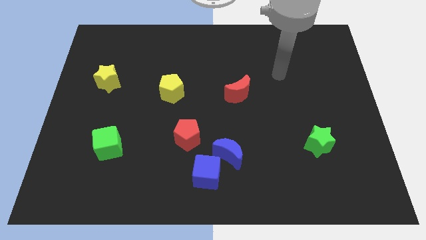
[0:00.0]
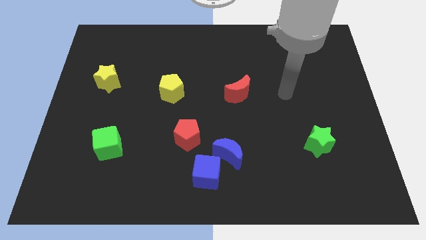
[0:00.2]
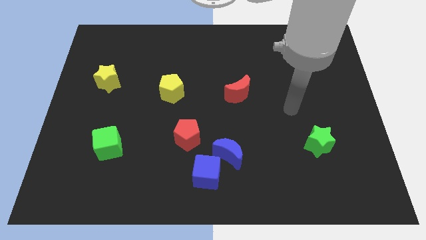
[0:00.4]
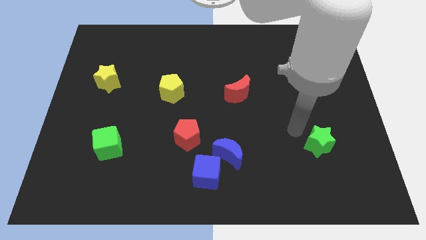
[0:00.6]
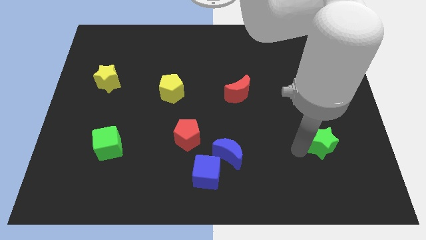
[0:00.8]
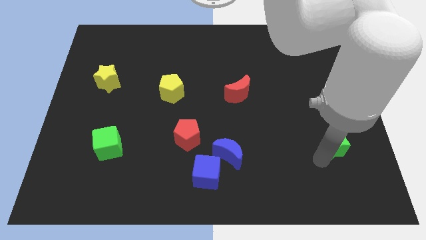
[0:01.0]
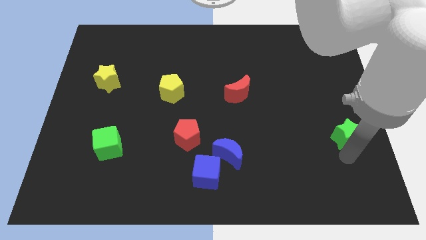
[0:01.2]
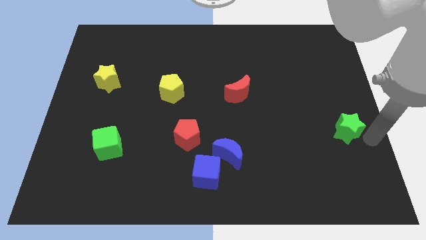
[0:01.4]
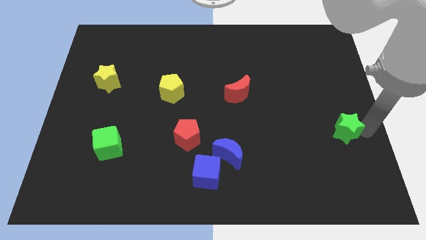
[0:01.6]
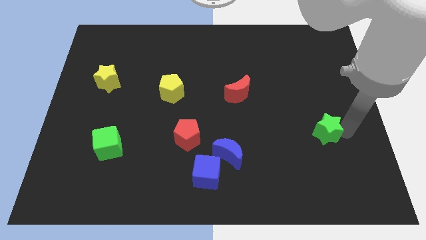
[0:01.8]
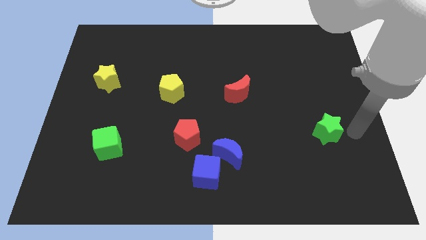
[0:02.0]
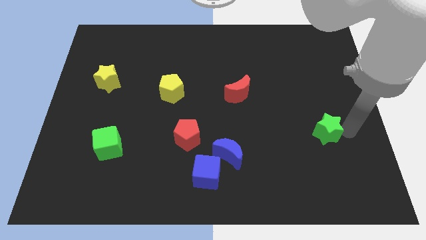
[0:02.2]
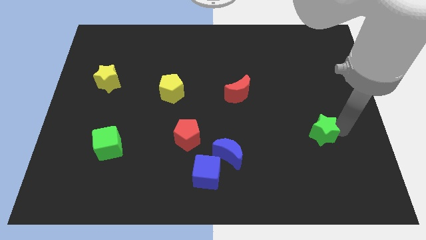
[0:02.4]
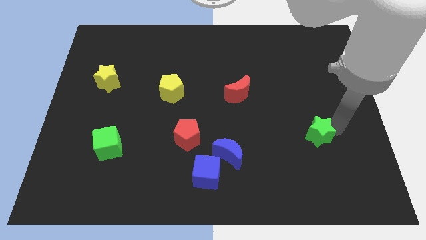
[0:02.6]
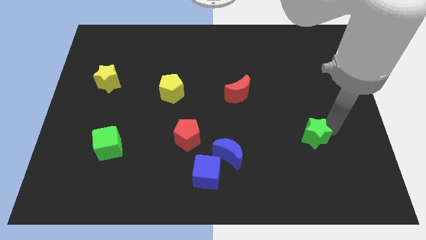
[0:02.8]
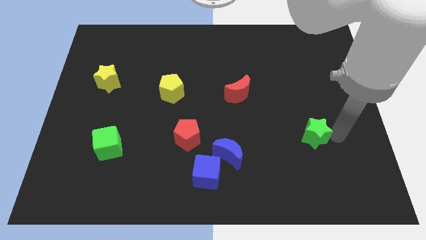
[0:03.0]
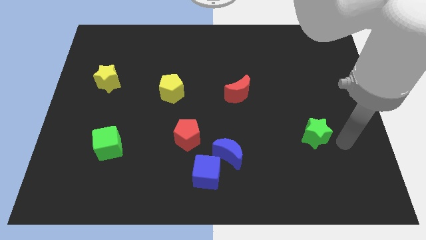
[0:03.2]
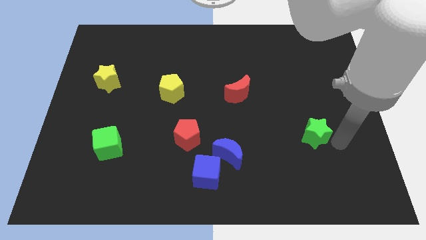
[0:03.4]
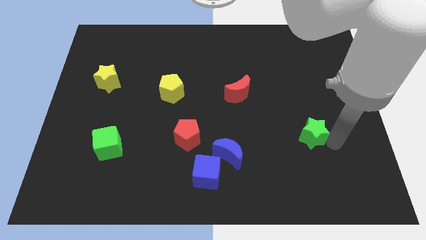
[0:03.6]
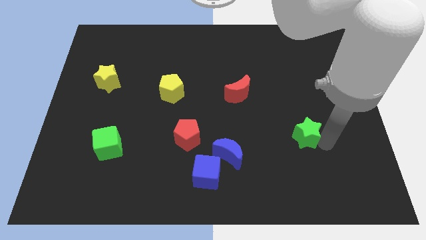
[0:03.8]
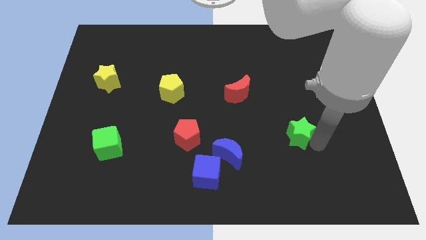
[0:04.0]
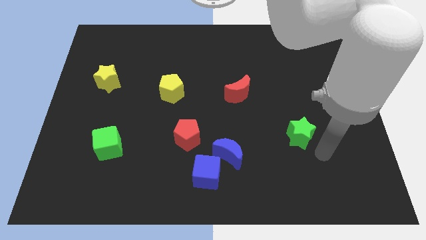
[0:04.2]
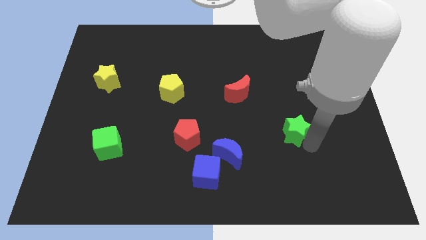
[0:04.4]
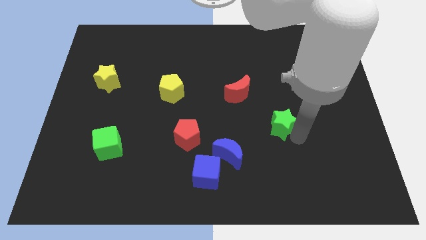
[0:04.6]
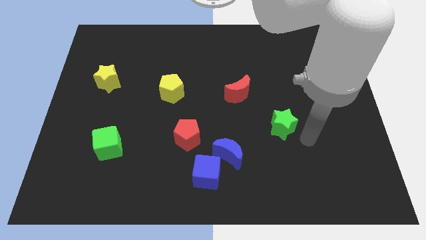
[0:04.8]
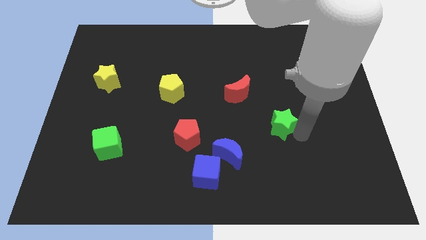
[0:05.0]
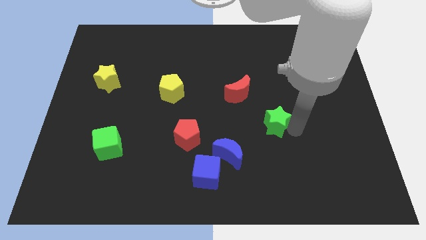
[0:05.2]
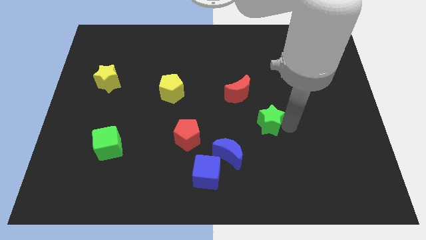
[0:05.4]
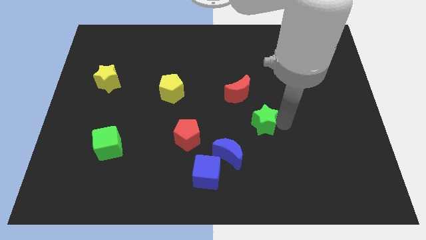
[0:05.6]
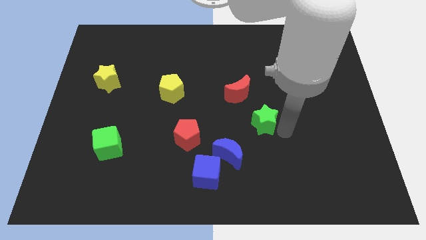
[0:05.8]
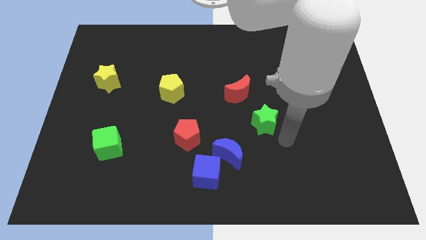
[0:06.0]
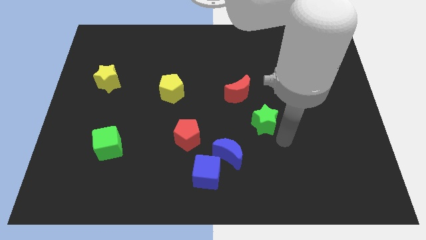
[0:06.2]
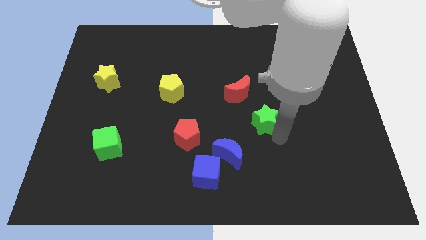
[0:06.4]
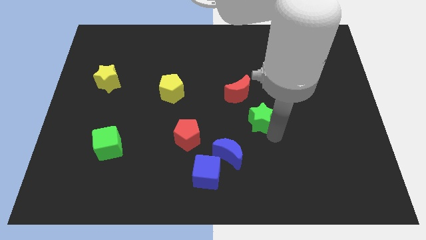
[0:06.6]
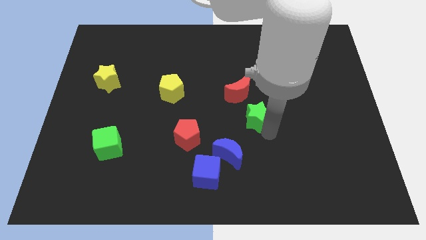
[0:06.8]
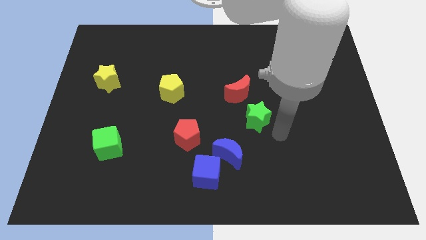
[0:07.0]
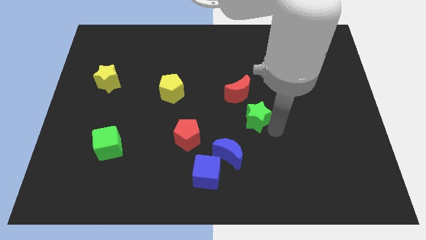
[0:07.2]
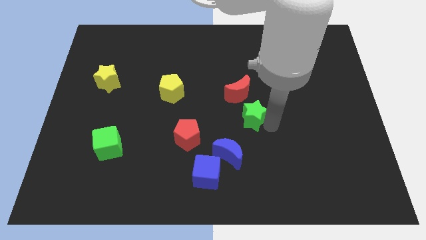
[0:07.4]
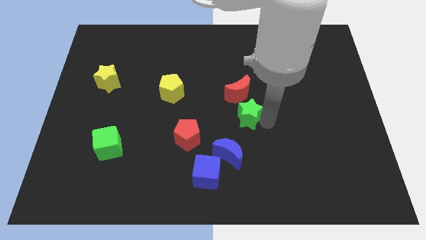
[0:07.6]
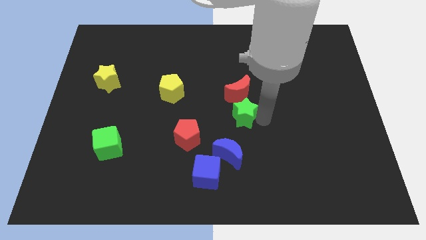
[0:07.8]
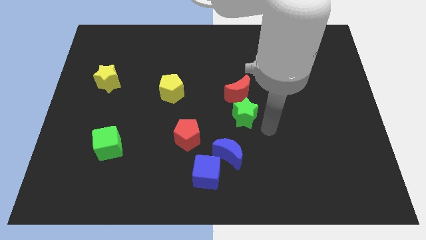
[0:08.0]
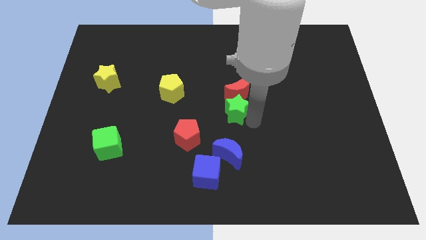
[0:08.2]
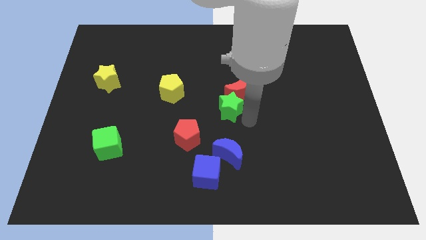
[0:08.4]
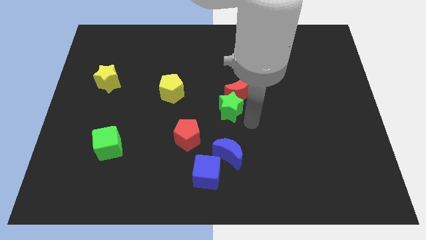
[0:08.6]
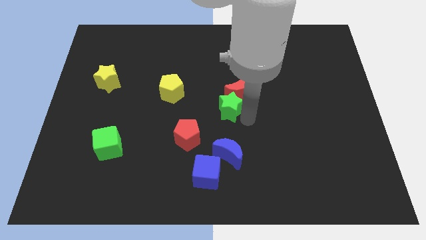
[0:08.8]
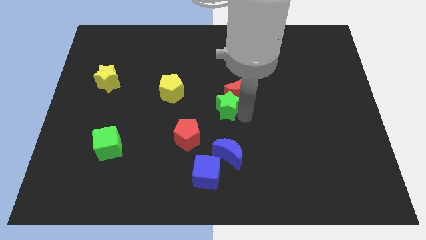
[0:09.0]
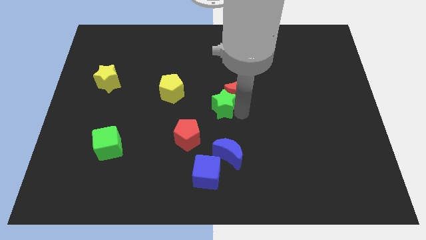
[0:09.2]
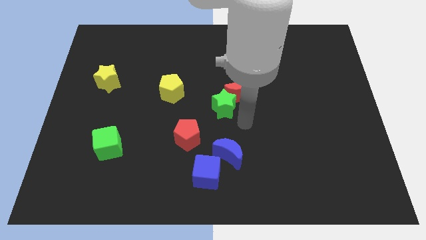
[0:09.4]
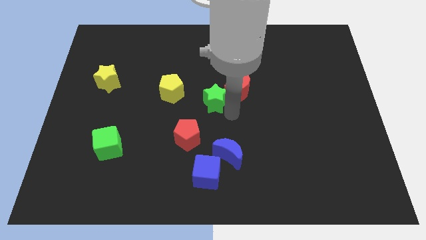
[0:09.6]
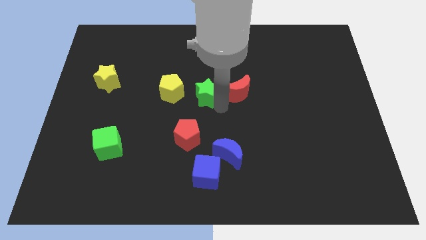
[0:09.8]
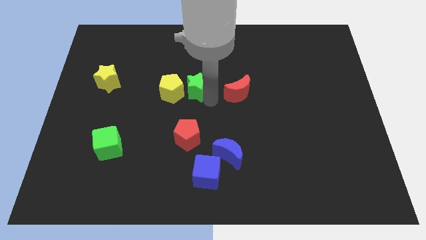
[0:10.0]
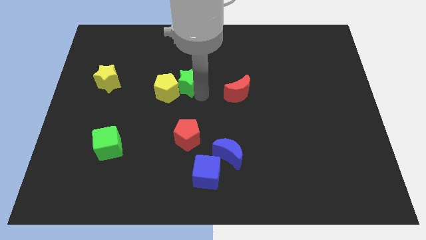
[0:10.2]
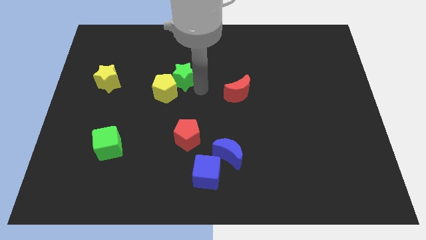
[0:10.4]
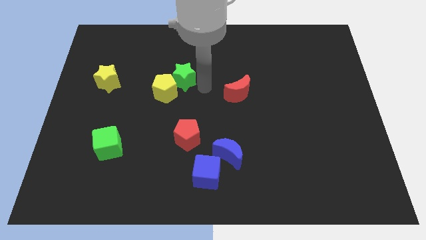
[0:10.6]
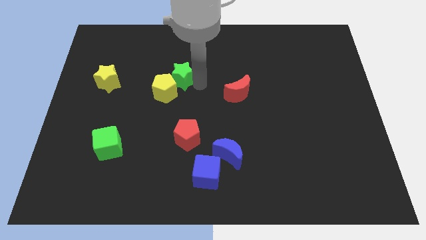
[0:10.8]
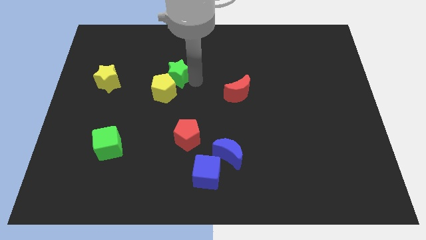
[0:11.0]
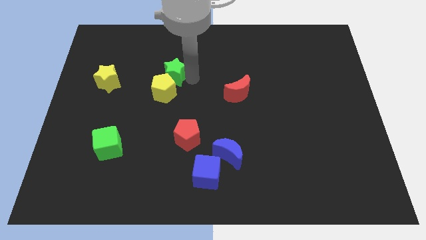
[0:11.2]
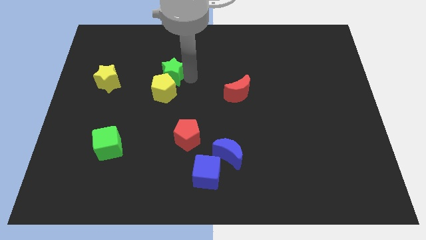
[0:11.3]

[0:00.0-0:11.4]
move the green star to the right side of the yellow star
